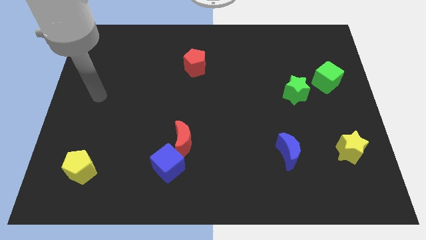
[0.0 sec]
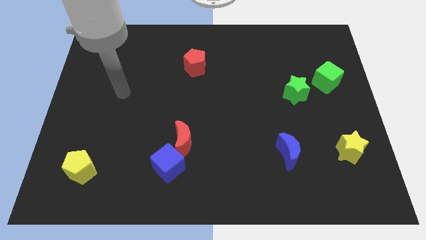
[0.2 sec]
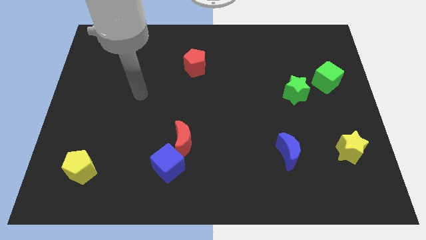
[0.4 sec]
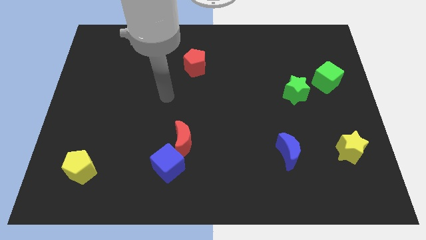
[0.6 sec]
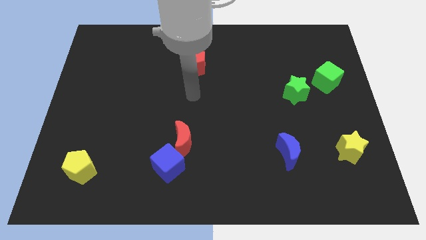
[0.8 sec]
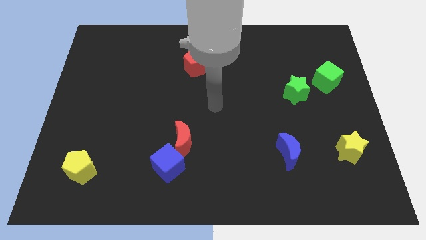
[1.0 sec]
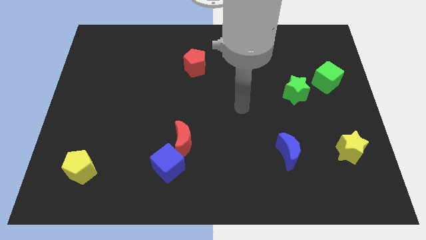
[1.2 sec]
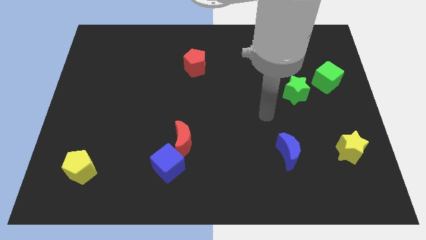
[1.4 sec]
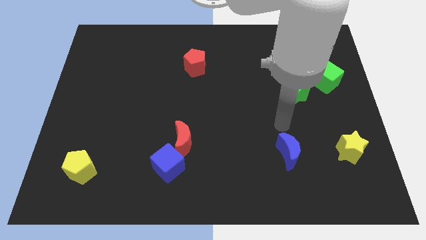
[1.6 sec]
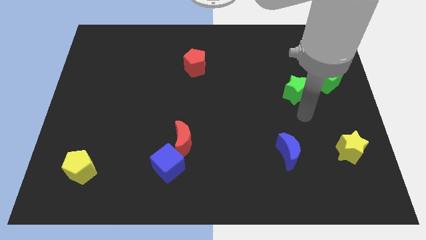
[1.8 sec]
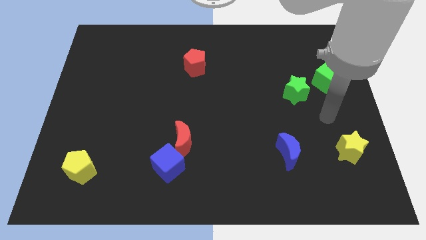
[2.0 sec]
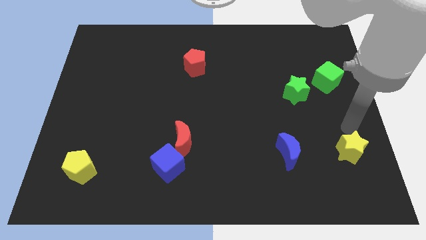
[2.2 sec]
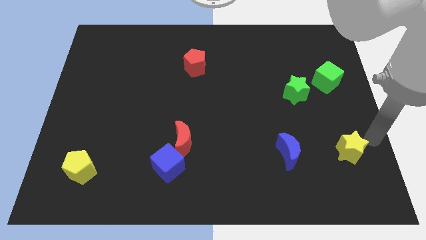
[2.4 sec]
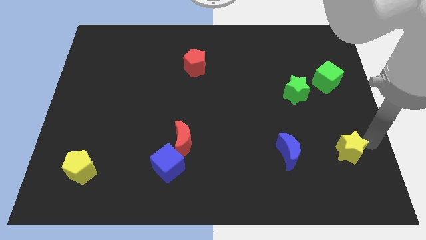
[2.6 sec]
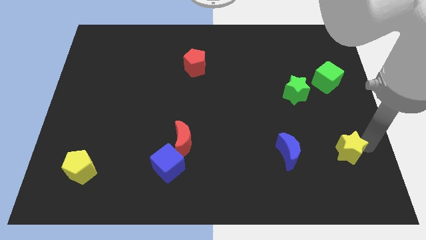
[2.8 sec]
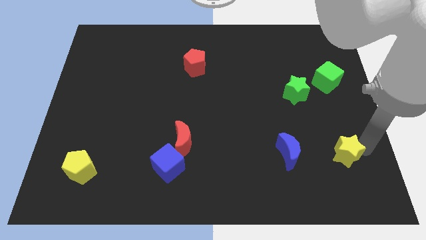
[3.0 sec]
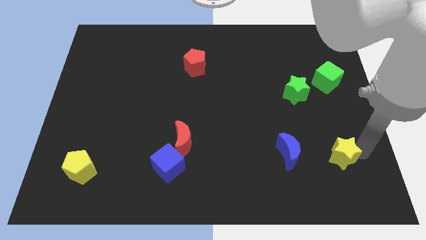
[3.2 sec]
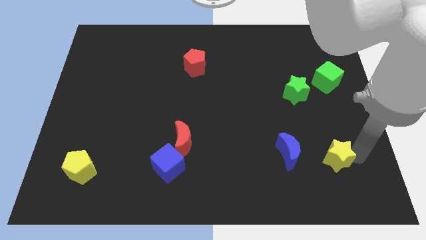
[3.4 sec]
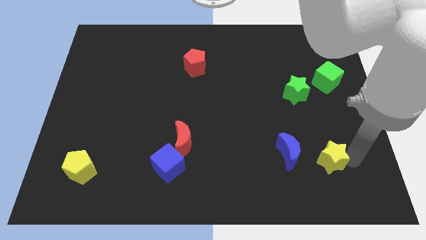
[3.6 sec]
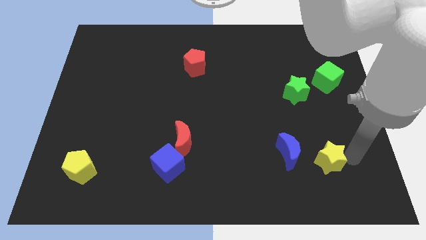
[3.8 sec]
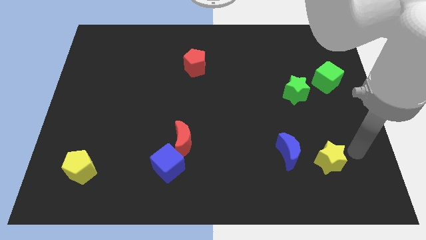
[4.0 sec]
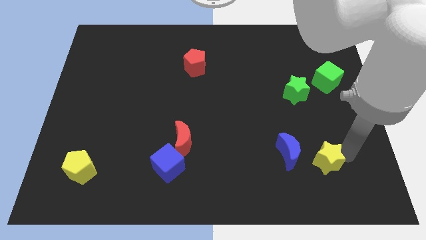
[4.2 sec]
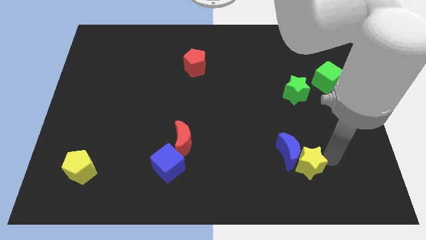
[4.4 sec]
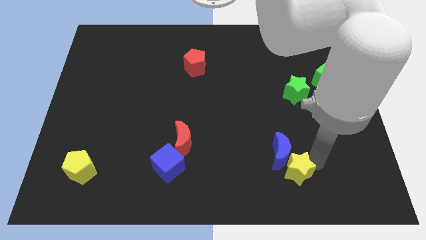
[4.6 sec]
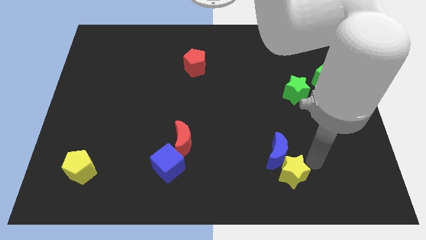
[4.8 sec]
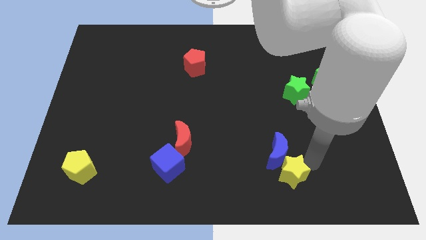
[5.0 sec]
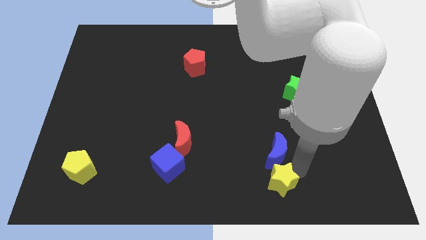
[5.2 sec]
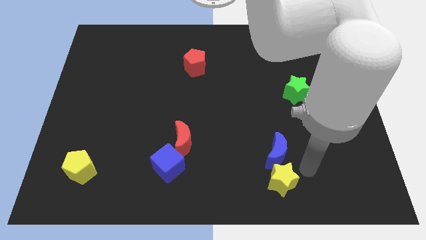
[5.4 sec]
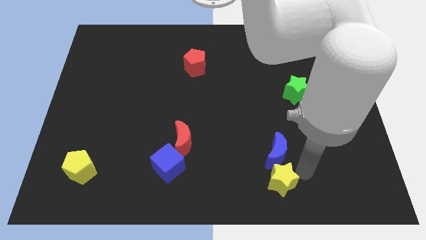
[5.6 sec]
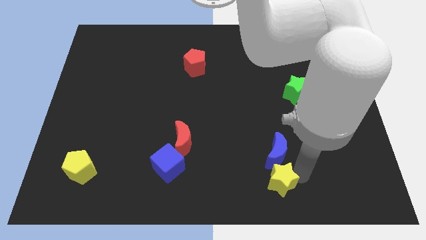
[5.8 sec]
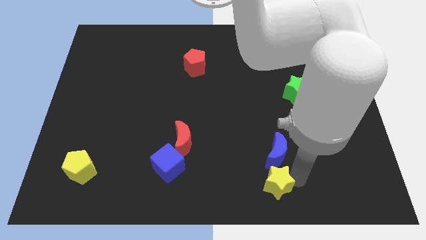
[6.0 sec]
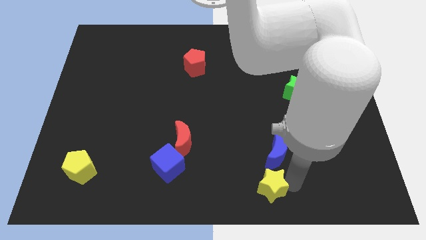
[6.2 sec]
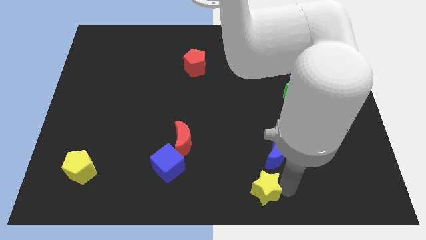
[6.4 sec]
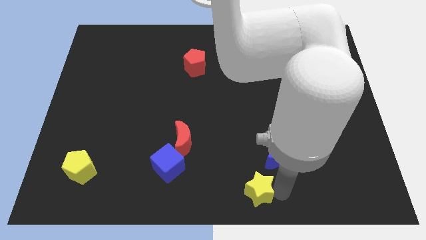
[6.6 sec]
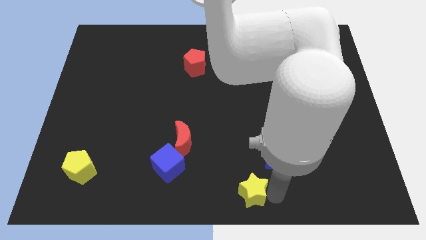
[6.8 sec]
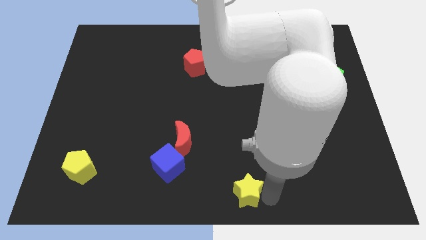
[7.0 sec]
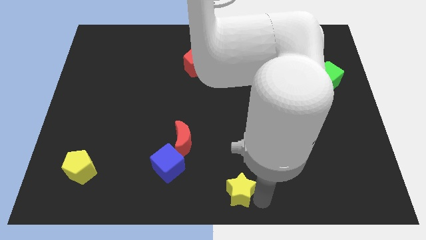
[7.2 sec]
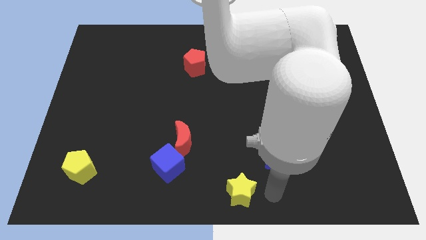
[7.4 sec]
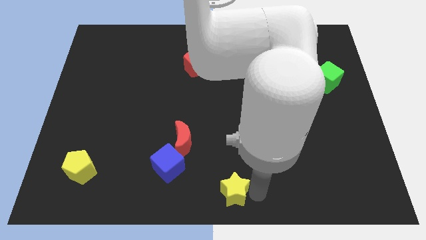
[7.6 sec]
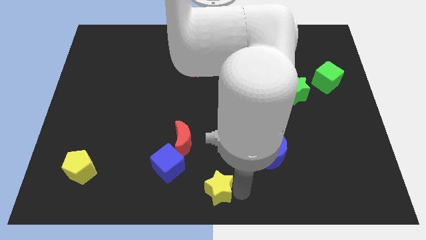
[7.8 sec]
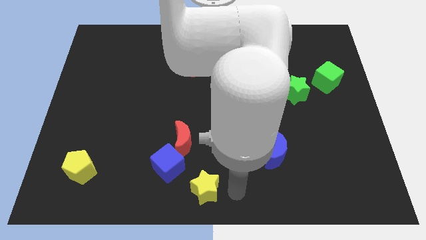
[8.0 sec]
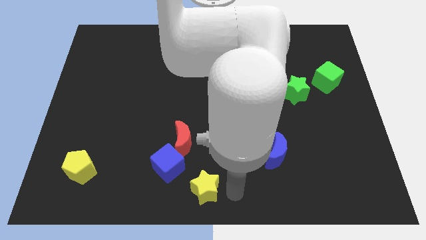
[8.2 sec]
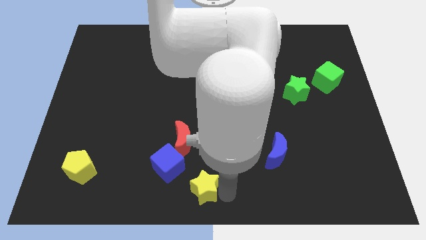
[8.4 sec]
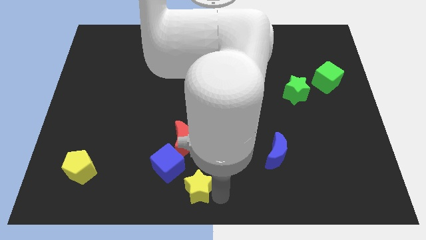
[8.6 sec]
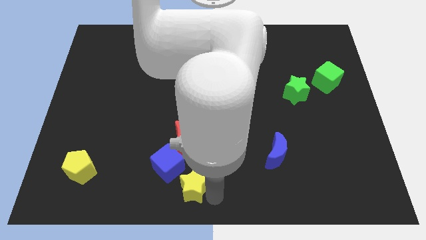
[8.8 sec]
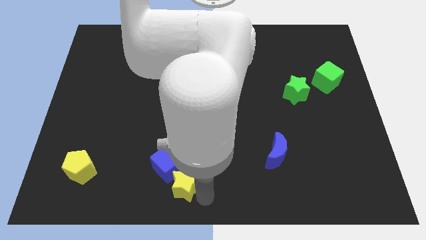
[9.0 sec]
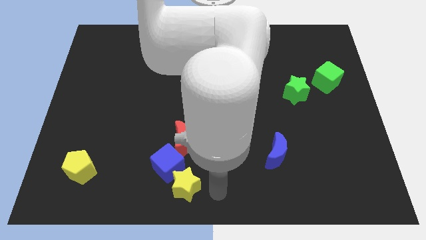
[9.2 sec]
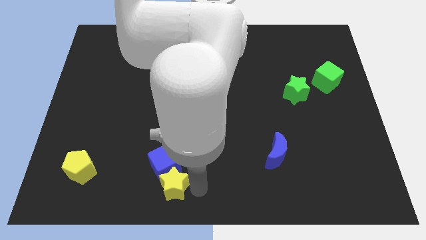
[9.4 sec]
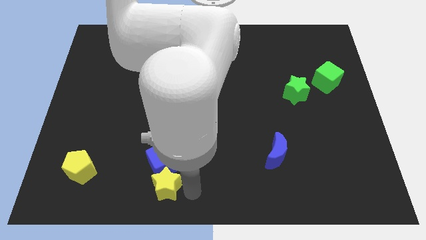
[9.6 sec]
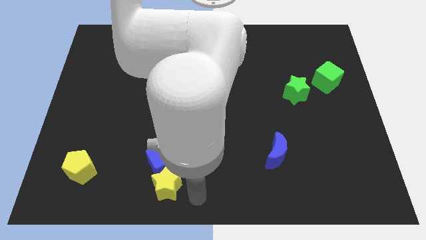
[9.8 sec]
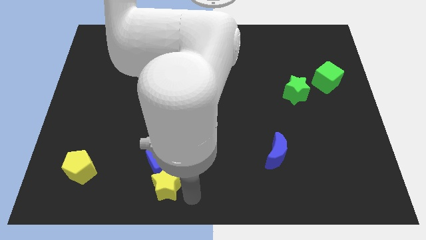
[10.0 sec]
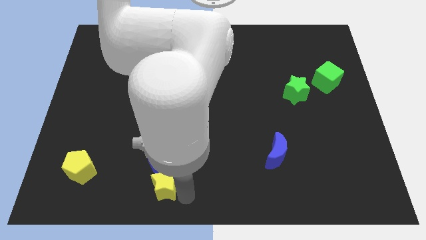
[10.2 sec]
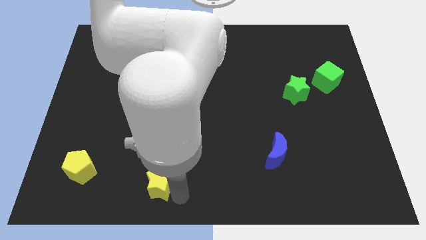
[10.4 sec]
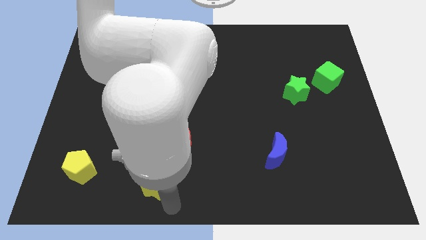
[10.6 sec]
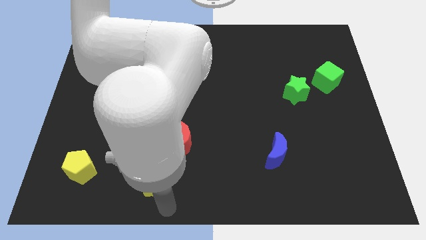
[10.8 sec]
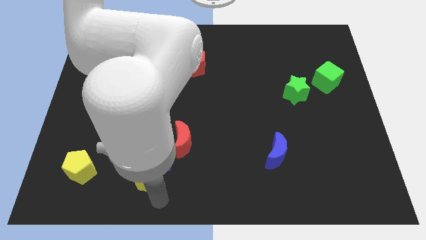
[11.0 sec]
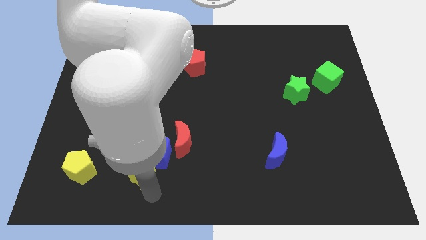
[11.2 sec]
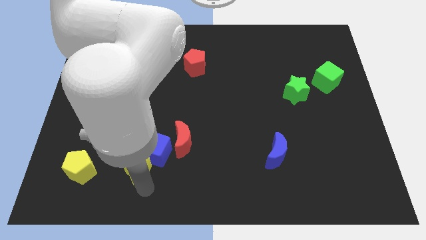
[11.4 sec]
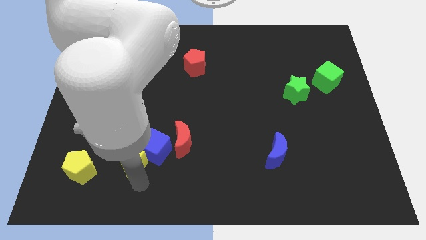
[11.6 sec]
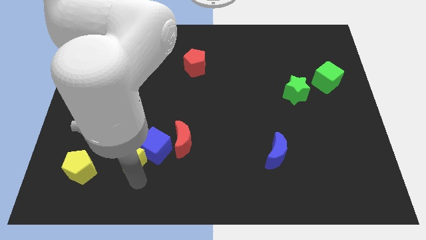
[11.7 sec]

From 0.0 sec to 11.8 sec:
push the yellow star left of the red moon

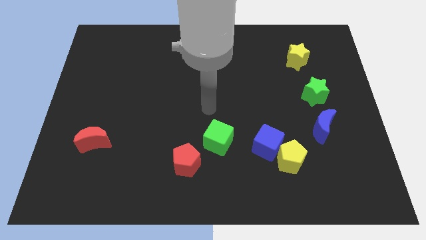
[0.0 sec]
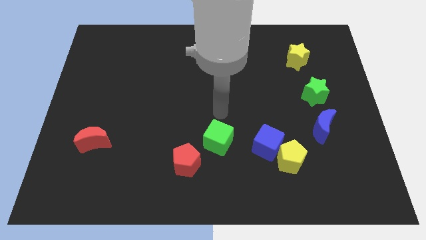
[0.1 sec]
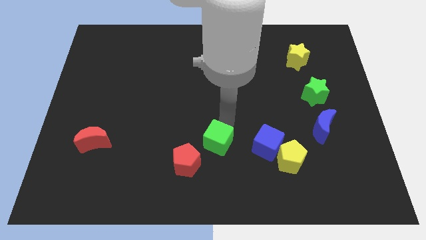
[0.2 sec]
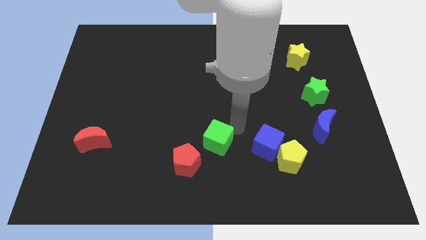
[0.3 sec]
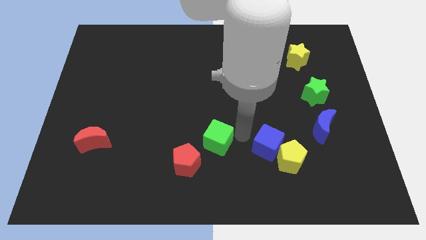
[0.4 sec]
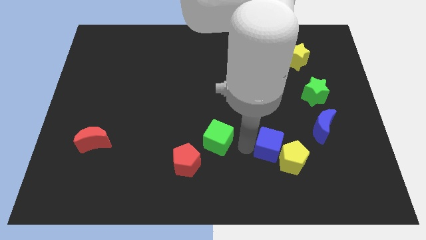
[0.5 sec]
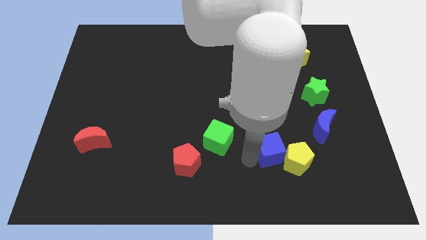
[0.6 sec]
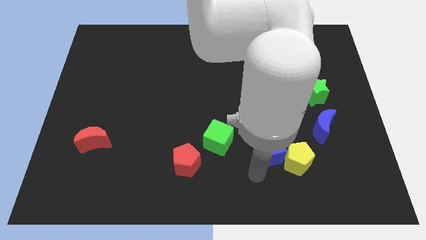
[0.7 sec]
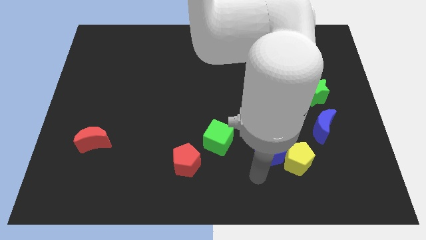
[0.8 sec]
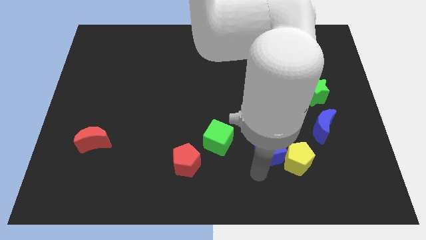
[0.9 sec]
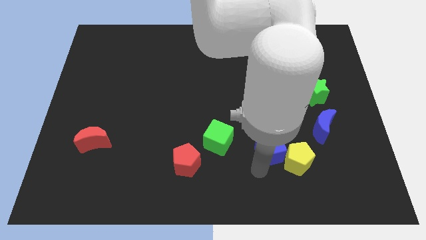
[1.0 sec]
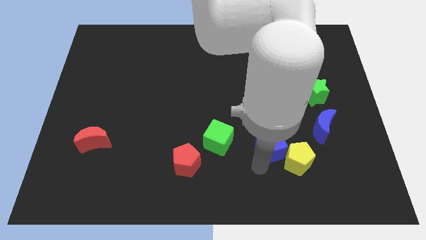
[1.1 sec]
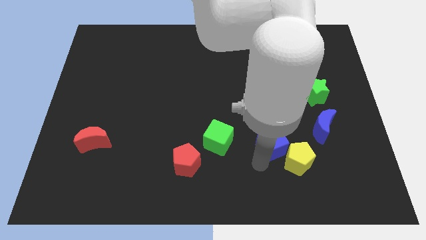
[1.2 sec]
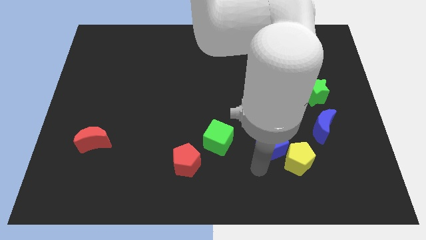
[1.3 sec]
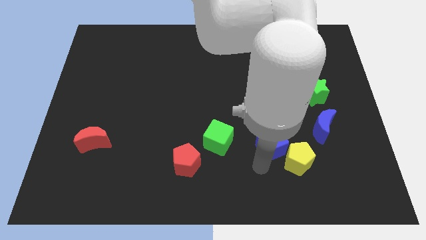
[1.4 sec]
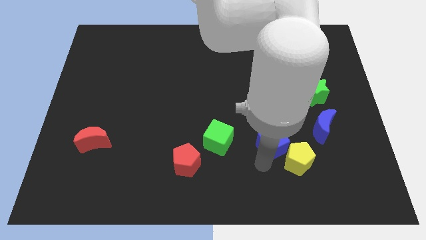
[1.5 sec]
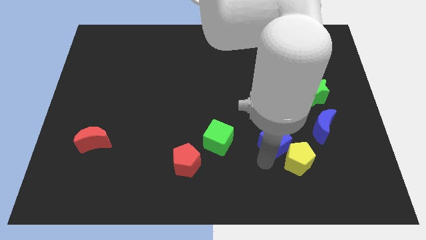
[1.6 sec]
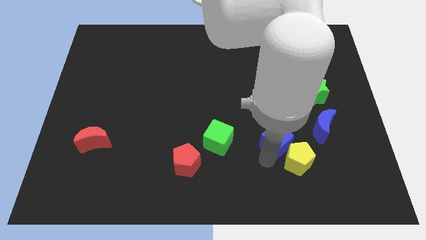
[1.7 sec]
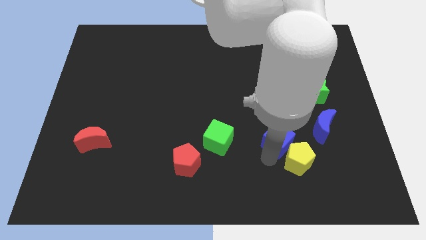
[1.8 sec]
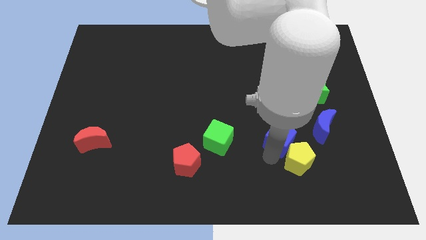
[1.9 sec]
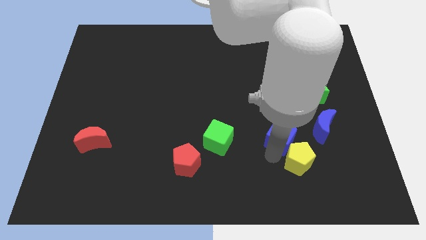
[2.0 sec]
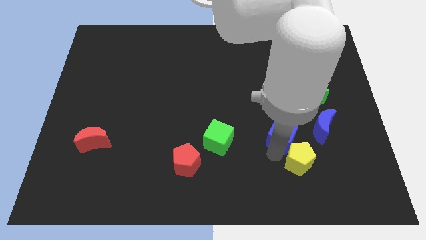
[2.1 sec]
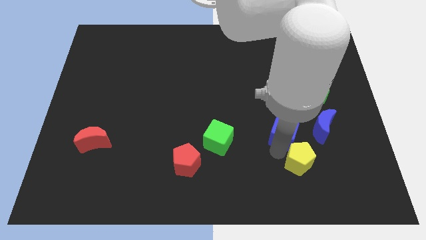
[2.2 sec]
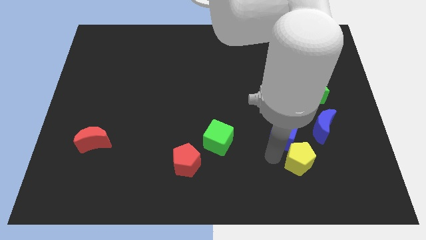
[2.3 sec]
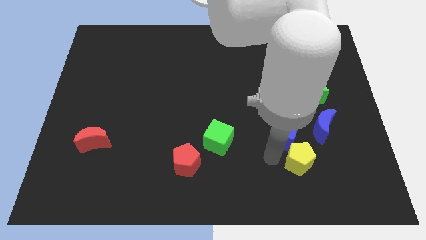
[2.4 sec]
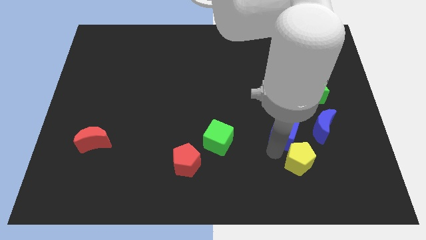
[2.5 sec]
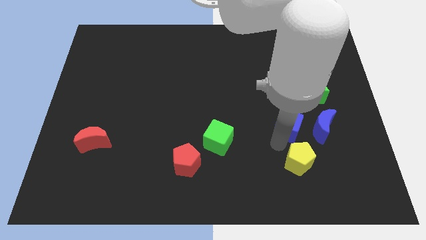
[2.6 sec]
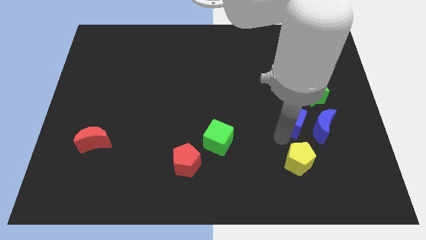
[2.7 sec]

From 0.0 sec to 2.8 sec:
move the blue cube diagonally up and to the left of the blue moon
